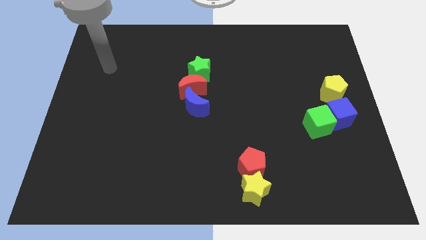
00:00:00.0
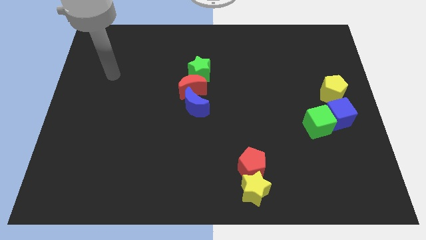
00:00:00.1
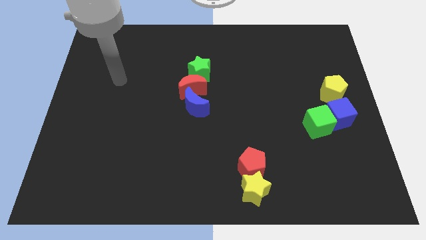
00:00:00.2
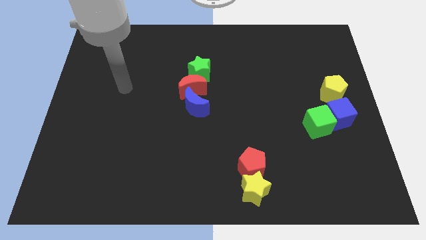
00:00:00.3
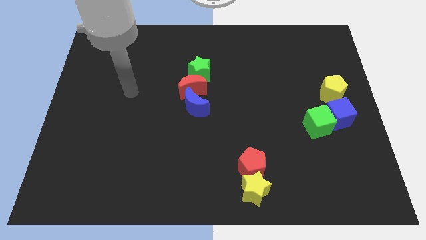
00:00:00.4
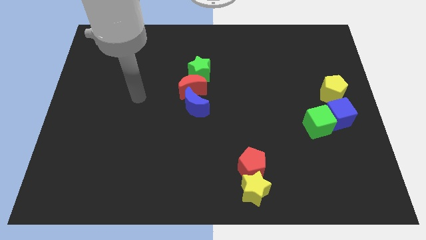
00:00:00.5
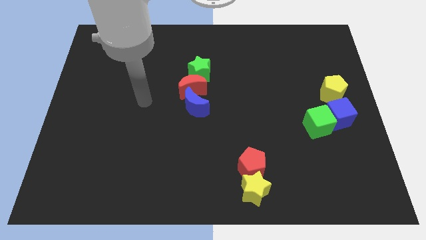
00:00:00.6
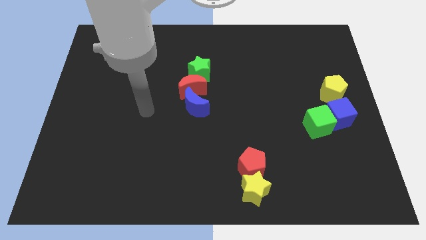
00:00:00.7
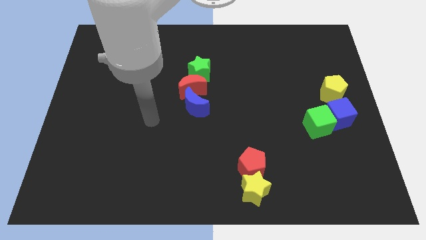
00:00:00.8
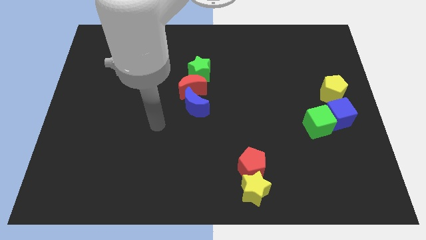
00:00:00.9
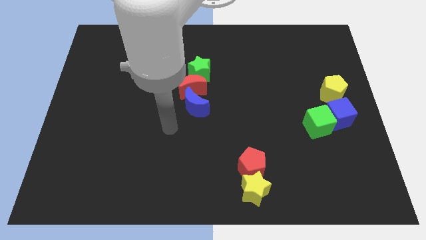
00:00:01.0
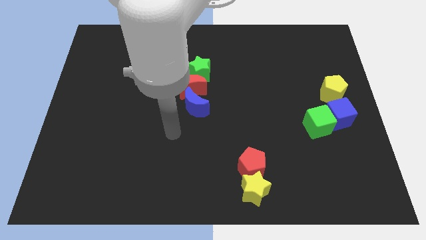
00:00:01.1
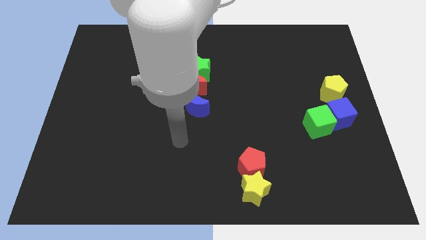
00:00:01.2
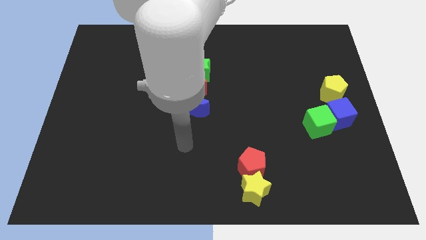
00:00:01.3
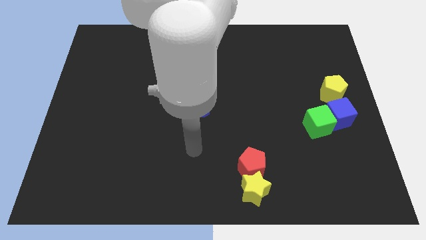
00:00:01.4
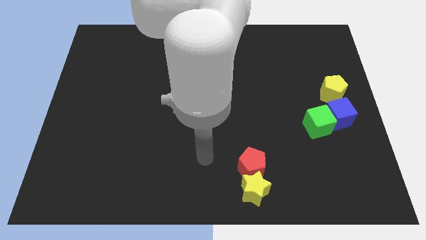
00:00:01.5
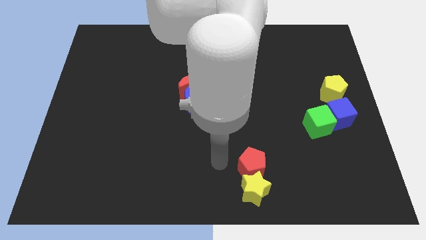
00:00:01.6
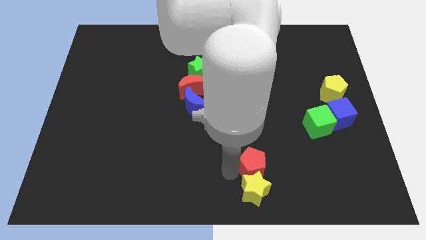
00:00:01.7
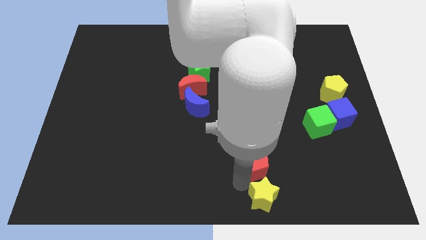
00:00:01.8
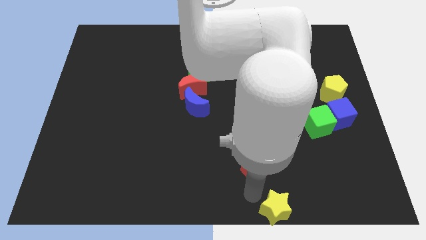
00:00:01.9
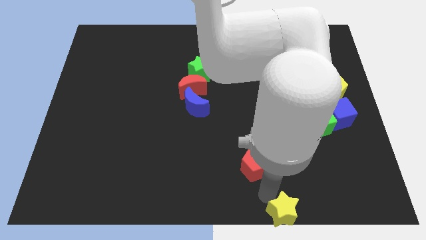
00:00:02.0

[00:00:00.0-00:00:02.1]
move the red pentagon away from the yellow star

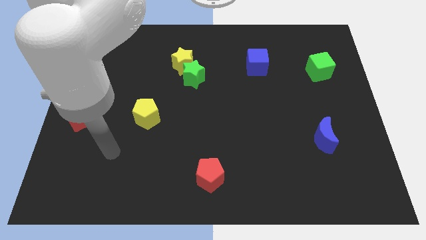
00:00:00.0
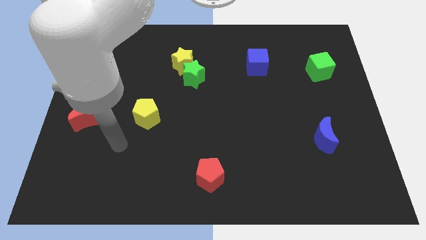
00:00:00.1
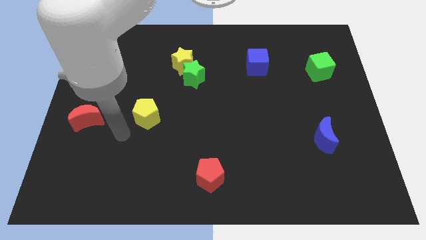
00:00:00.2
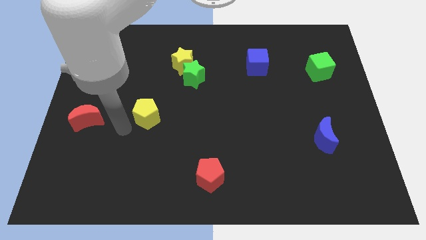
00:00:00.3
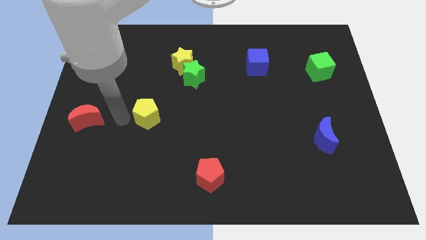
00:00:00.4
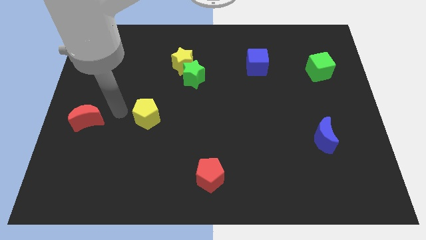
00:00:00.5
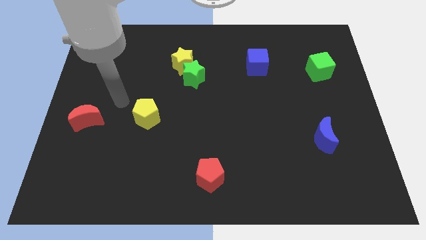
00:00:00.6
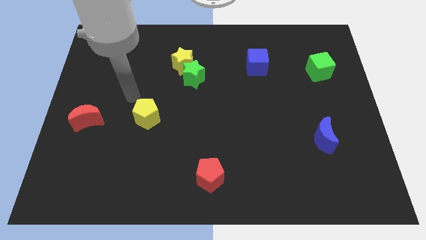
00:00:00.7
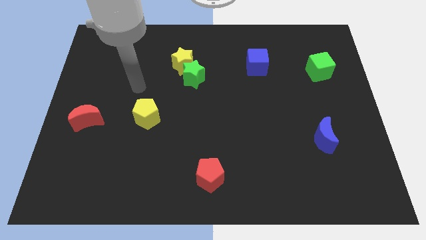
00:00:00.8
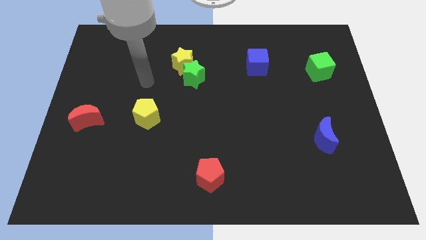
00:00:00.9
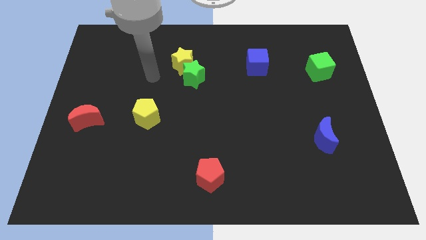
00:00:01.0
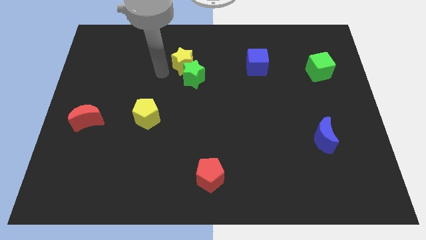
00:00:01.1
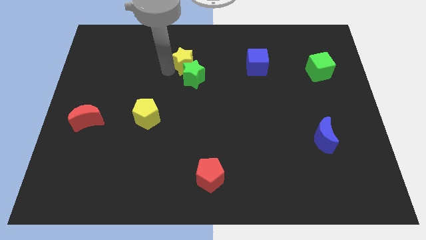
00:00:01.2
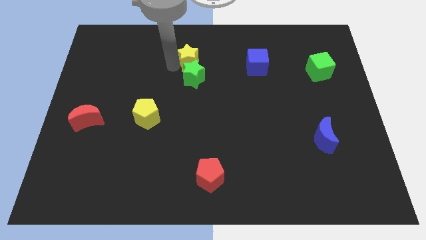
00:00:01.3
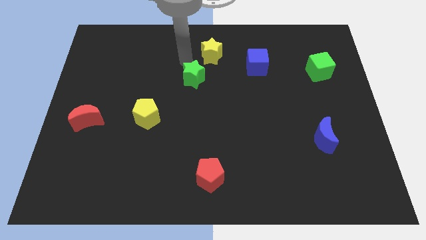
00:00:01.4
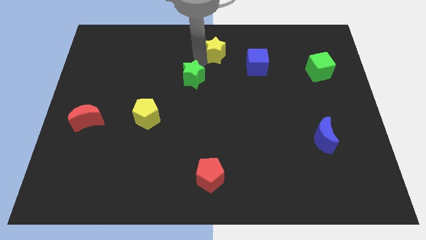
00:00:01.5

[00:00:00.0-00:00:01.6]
move the green star away from the yellow star

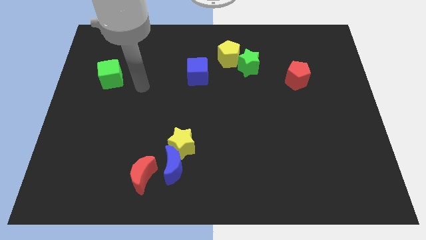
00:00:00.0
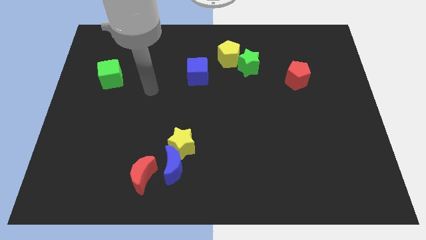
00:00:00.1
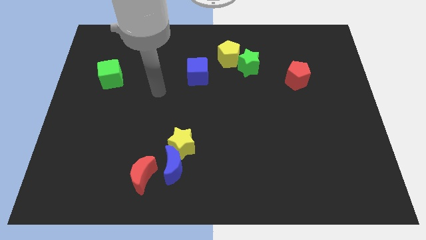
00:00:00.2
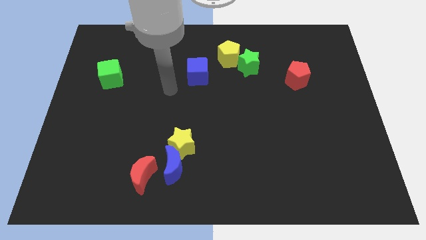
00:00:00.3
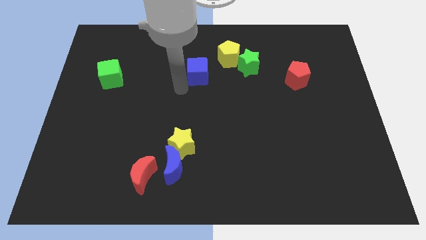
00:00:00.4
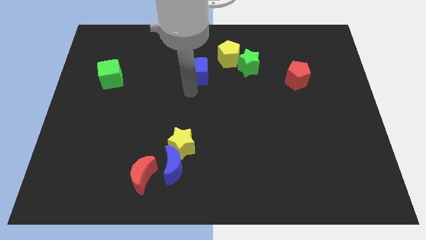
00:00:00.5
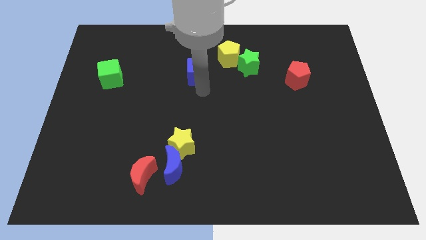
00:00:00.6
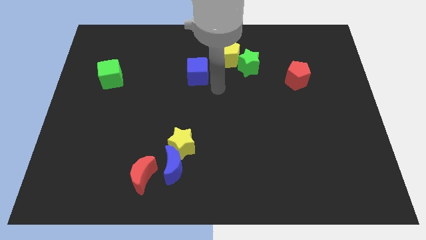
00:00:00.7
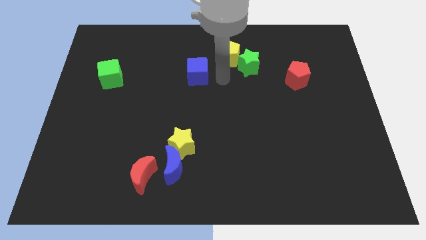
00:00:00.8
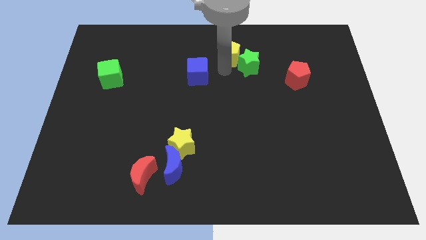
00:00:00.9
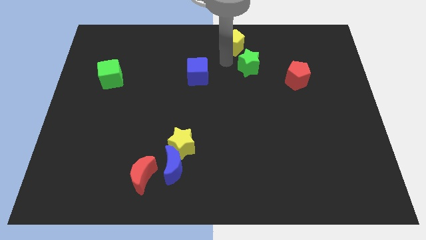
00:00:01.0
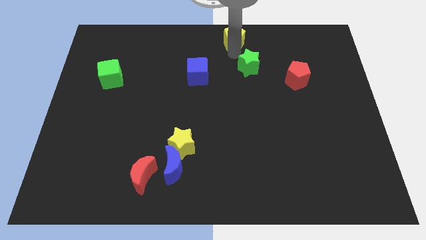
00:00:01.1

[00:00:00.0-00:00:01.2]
move the green star away from the yellow pentagon

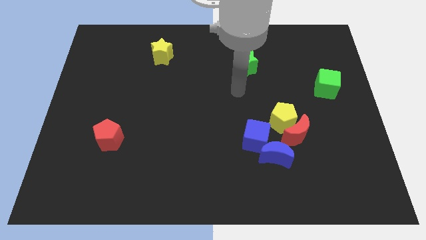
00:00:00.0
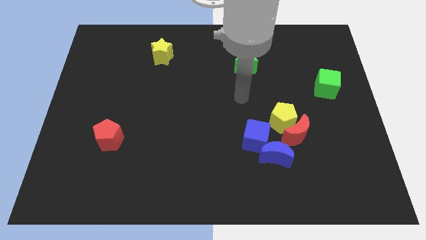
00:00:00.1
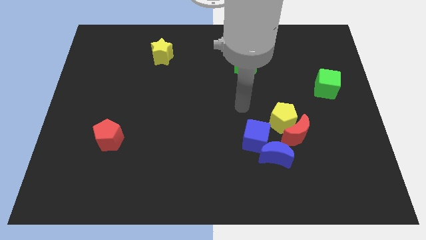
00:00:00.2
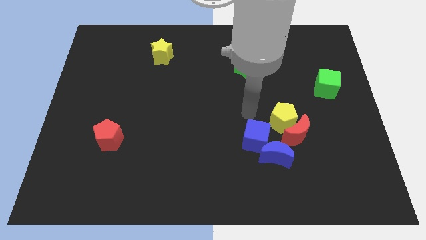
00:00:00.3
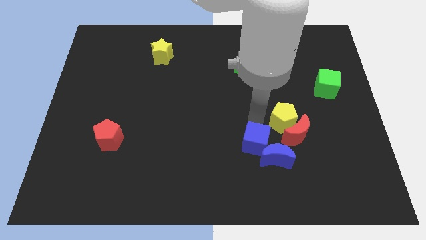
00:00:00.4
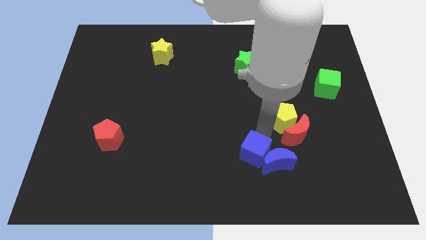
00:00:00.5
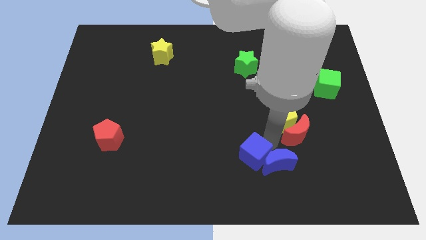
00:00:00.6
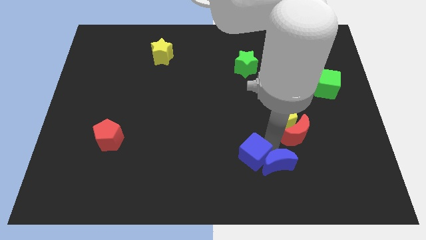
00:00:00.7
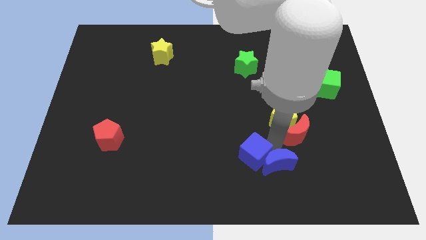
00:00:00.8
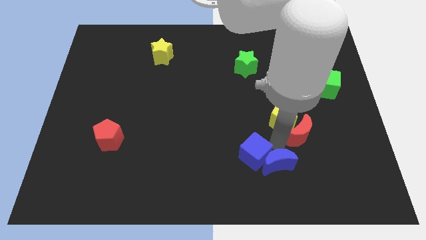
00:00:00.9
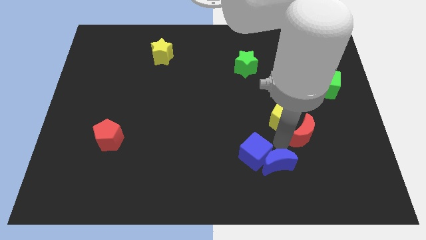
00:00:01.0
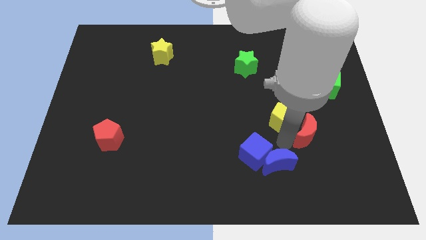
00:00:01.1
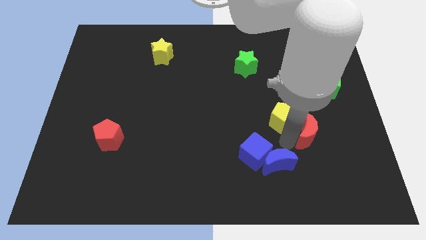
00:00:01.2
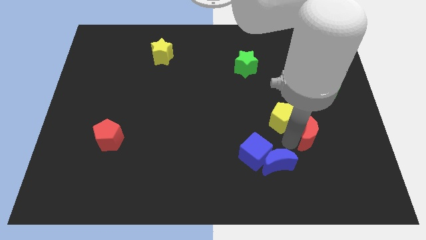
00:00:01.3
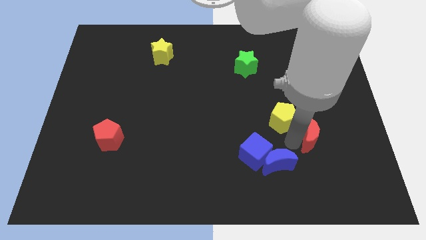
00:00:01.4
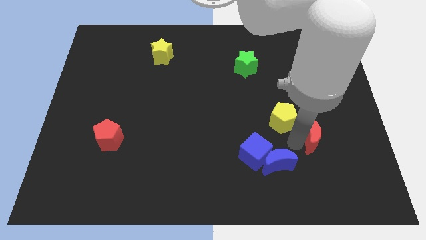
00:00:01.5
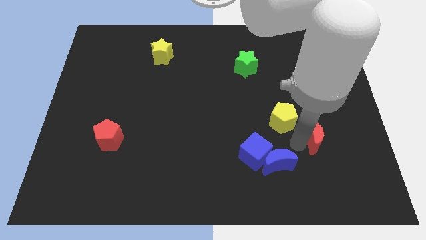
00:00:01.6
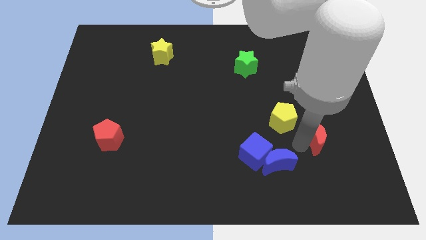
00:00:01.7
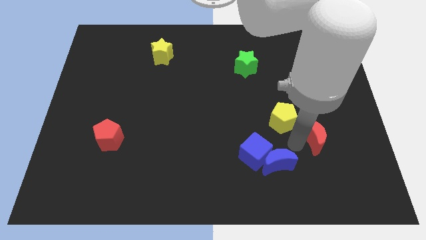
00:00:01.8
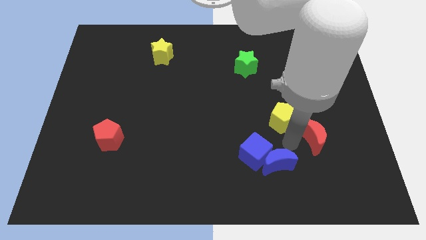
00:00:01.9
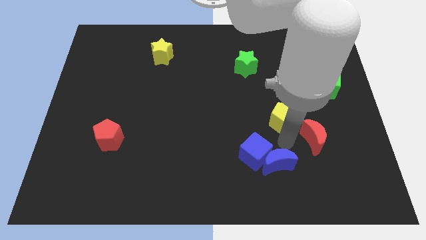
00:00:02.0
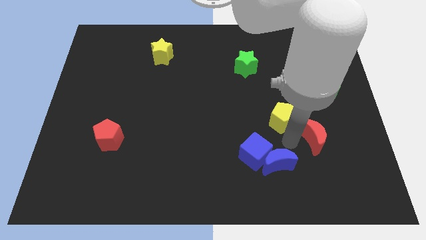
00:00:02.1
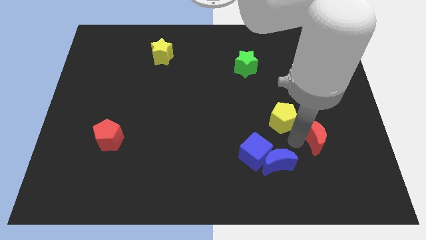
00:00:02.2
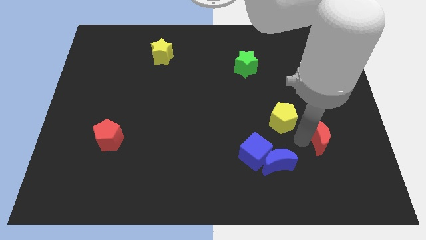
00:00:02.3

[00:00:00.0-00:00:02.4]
move the red moon away from the group of blocks

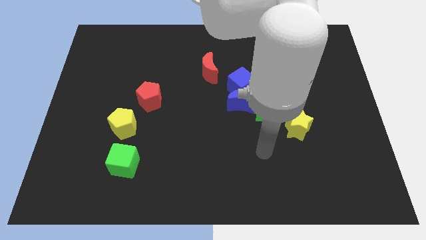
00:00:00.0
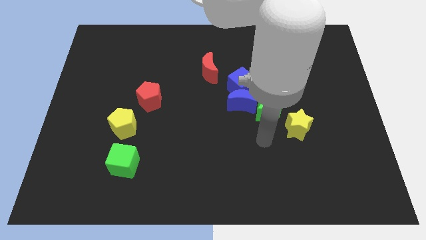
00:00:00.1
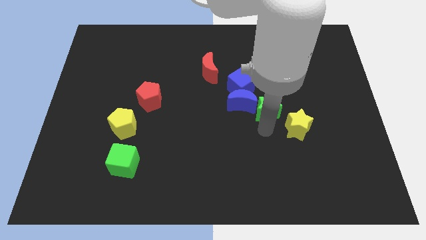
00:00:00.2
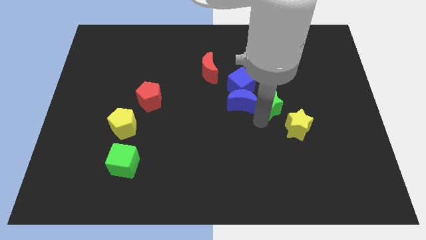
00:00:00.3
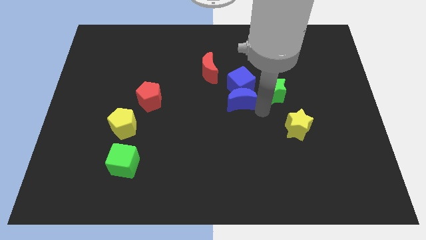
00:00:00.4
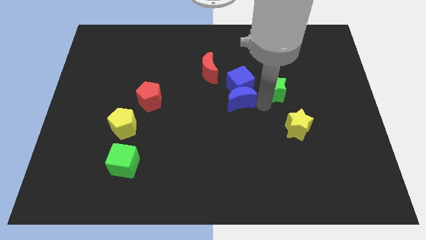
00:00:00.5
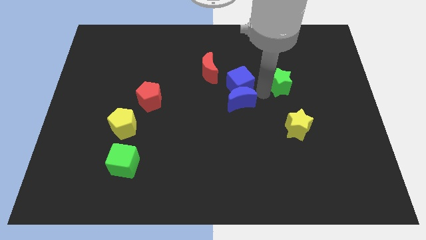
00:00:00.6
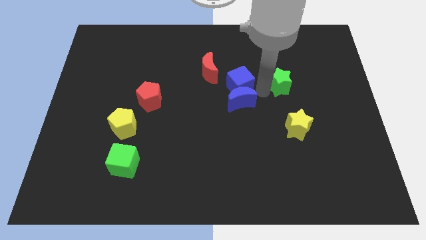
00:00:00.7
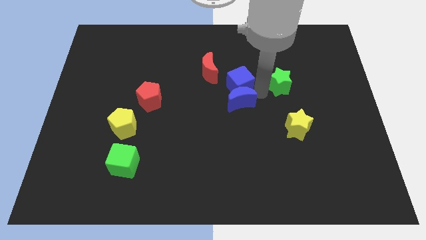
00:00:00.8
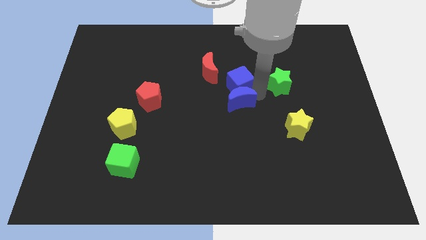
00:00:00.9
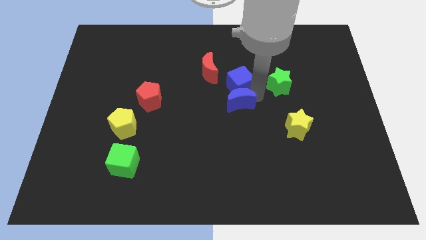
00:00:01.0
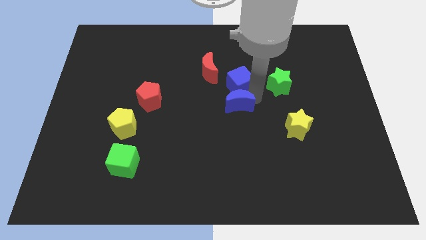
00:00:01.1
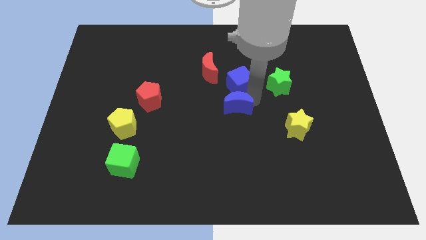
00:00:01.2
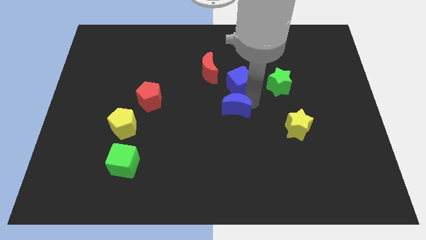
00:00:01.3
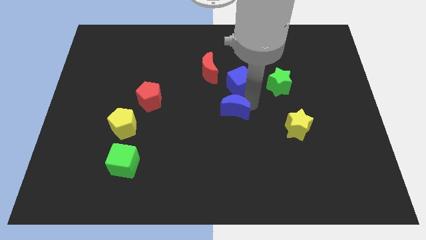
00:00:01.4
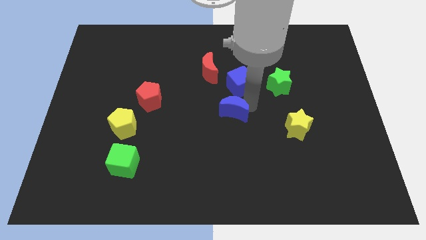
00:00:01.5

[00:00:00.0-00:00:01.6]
pull the blue moon apart from the blue cube and green star

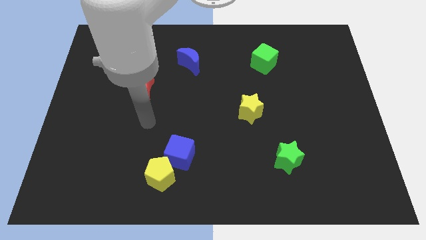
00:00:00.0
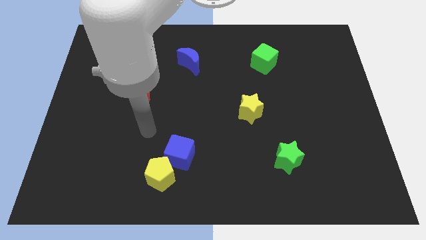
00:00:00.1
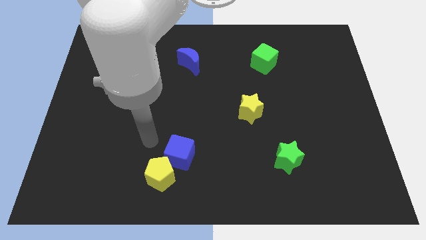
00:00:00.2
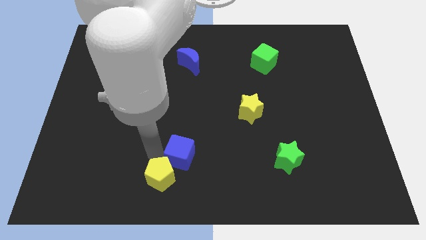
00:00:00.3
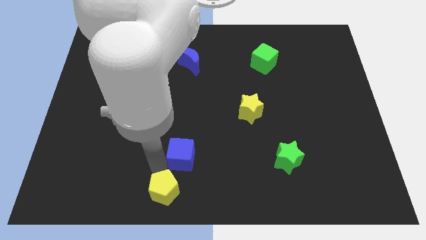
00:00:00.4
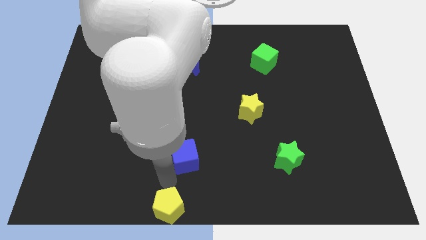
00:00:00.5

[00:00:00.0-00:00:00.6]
pull the blue cube apart from the yellow pentagon
